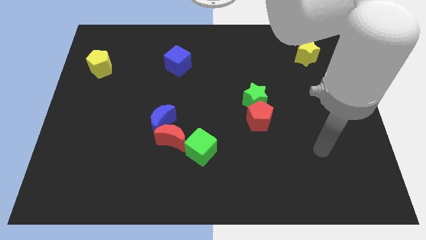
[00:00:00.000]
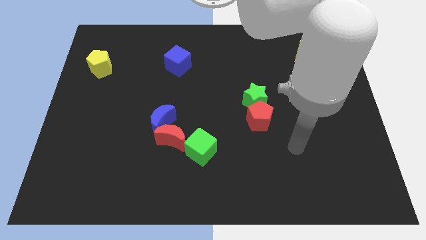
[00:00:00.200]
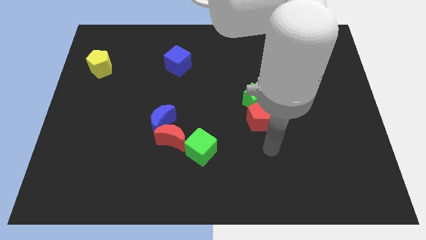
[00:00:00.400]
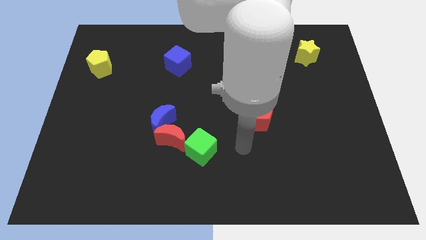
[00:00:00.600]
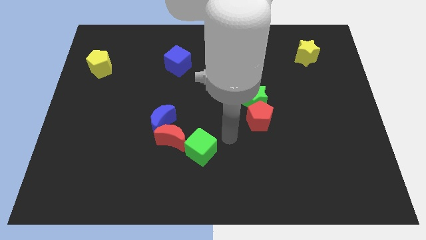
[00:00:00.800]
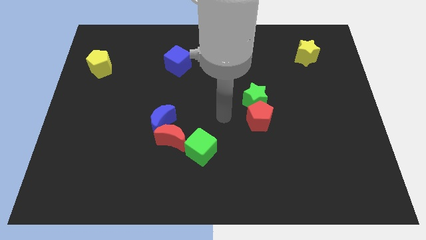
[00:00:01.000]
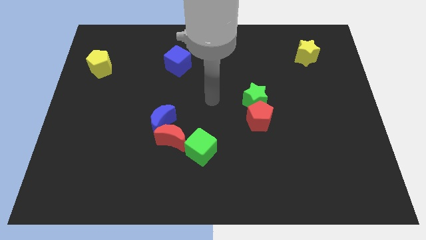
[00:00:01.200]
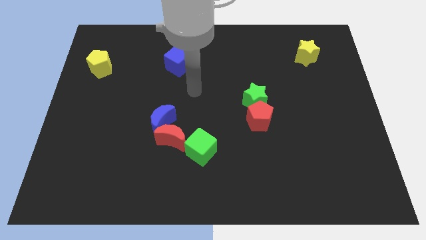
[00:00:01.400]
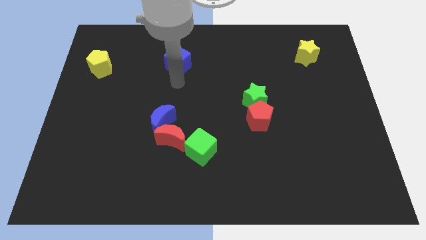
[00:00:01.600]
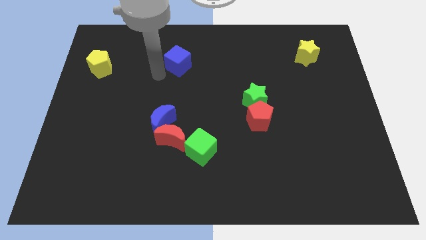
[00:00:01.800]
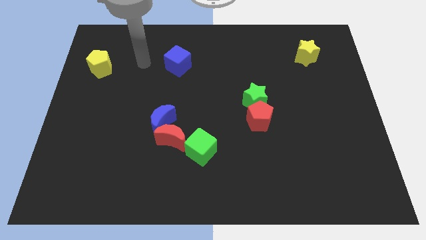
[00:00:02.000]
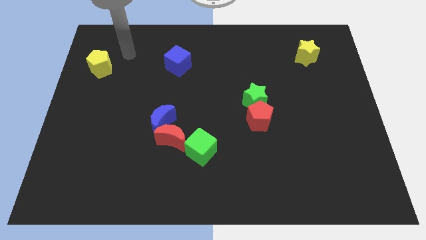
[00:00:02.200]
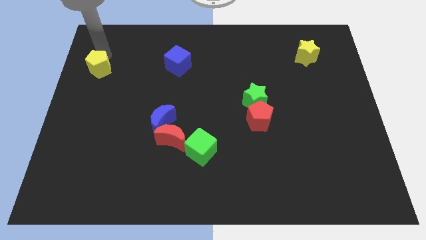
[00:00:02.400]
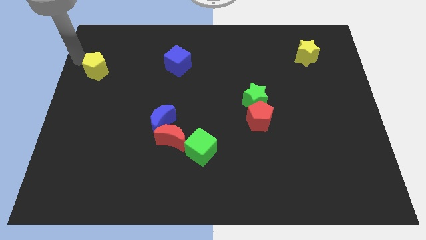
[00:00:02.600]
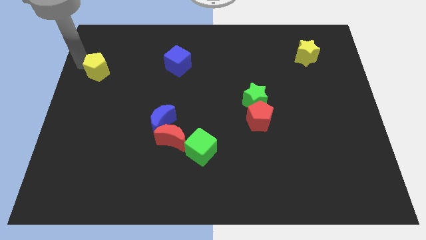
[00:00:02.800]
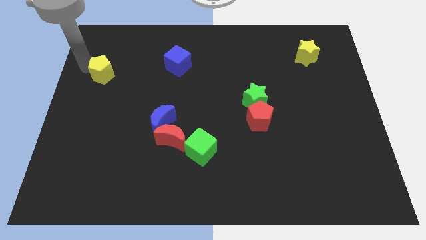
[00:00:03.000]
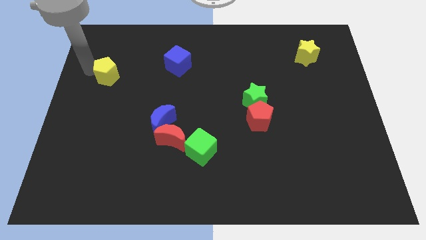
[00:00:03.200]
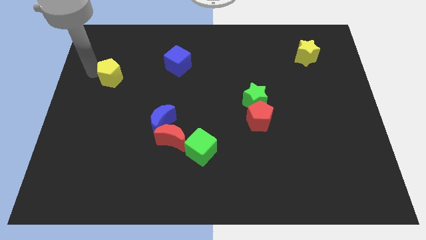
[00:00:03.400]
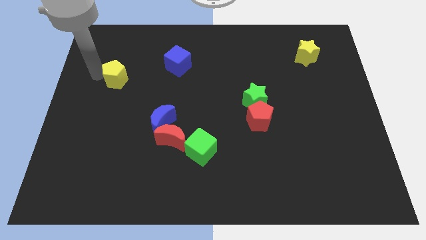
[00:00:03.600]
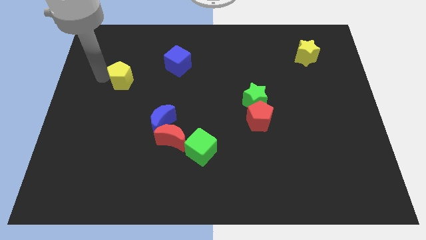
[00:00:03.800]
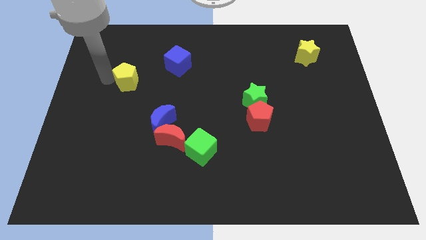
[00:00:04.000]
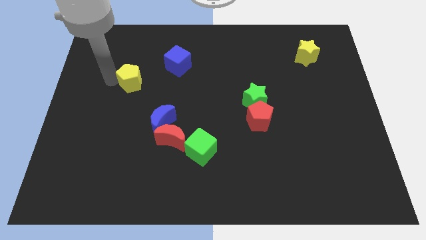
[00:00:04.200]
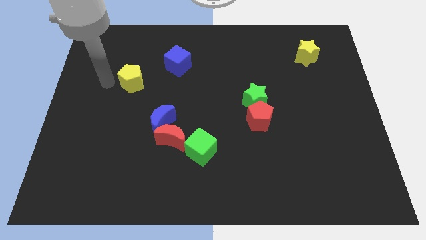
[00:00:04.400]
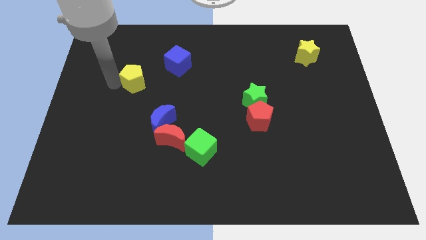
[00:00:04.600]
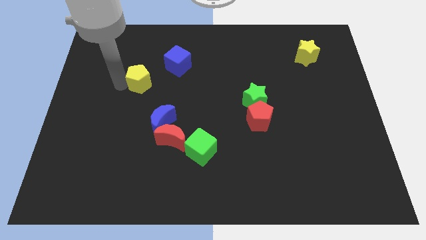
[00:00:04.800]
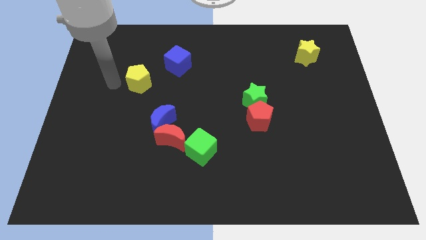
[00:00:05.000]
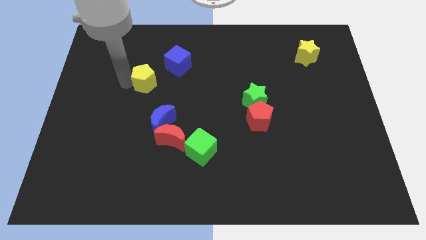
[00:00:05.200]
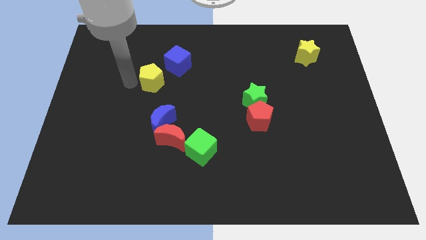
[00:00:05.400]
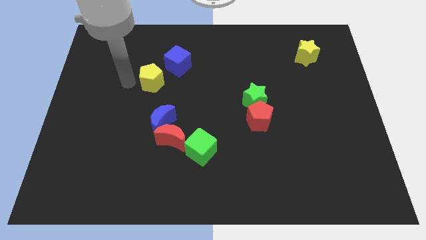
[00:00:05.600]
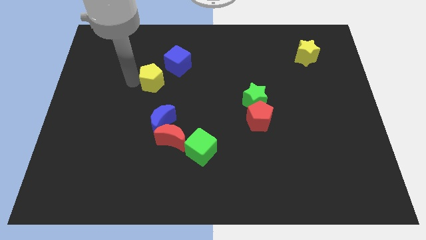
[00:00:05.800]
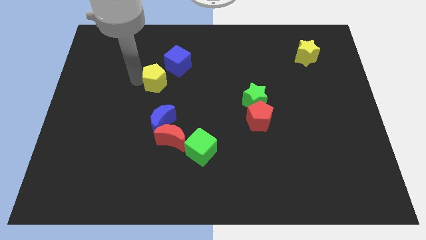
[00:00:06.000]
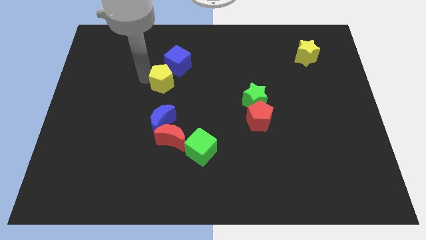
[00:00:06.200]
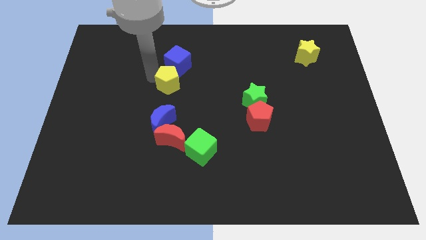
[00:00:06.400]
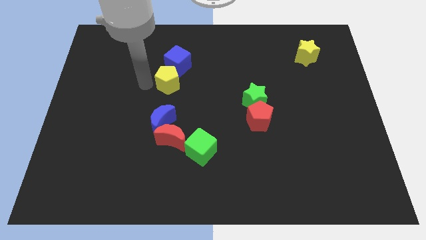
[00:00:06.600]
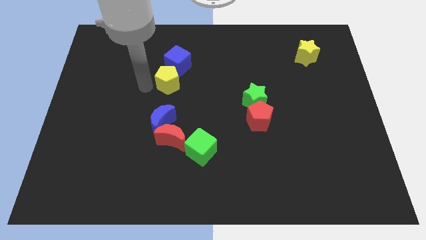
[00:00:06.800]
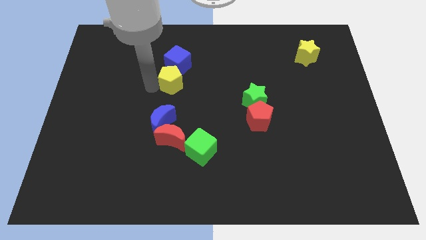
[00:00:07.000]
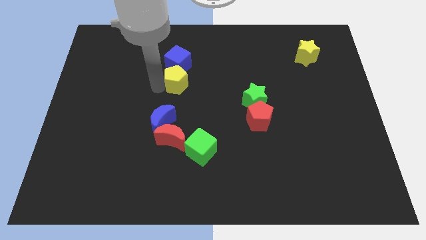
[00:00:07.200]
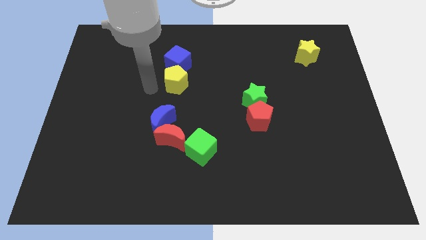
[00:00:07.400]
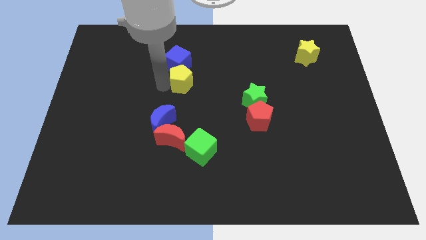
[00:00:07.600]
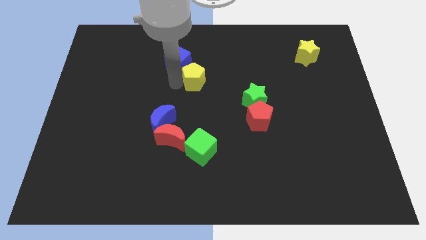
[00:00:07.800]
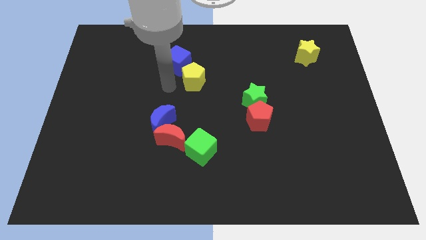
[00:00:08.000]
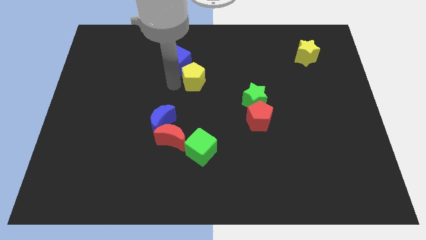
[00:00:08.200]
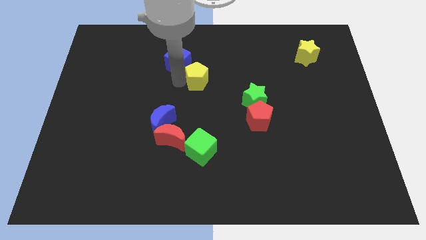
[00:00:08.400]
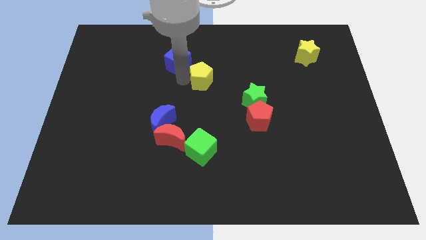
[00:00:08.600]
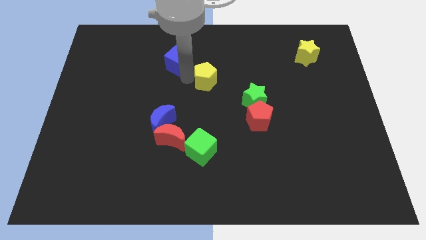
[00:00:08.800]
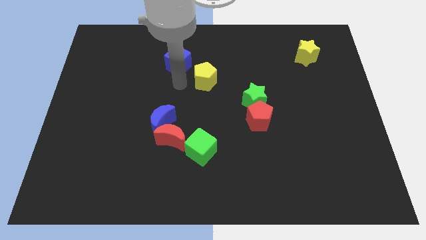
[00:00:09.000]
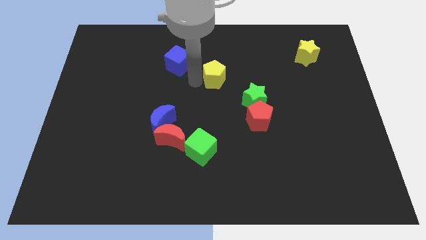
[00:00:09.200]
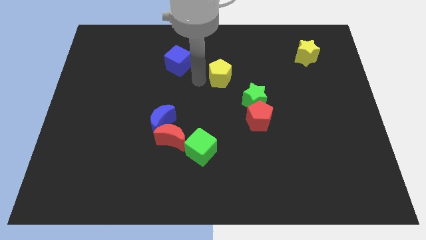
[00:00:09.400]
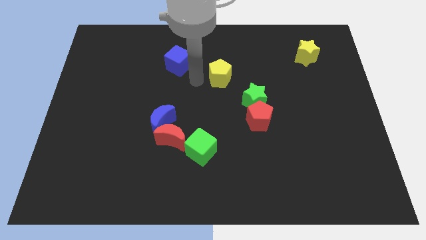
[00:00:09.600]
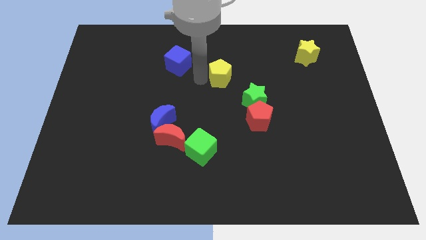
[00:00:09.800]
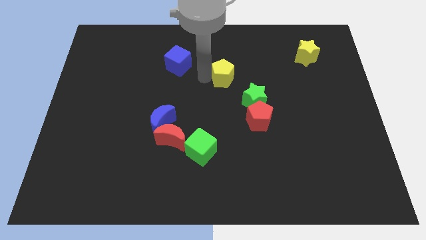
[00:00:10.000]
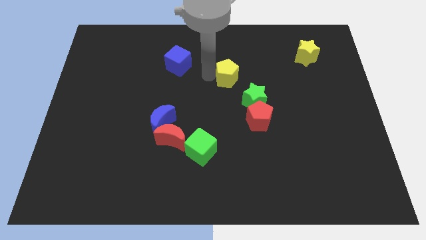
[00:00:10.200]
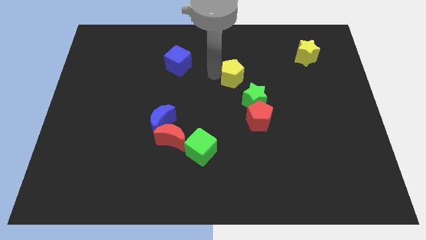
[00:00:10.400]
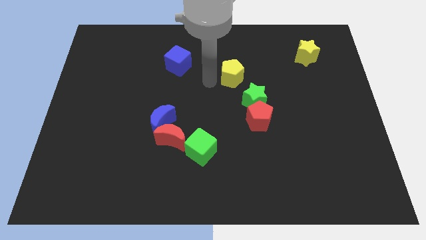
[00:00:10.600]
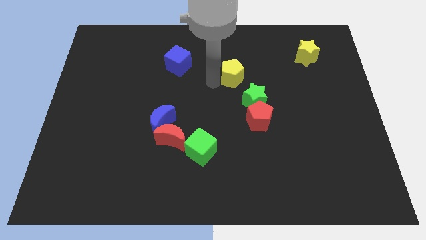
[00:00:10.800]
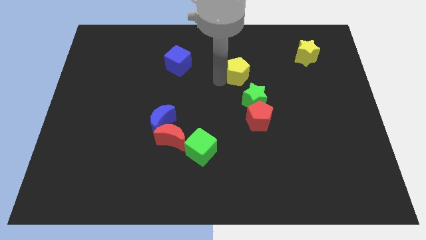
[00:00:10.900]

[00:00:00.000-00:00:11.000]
move the yellow pentagon to the top side of the green star
